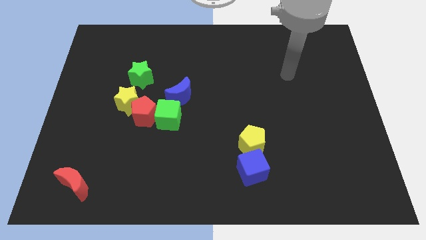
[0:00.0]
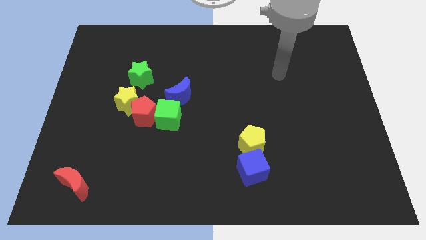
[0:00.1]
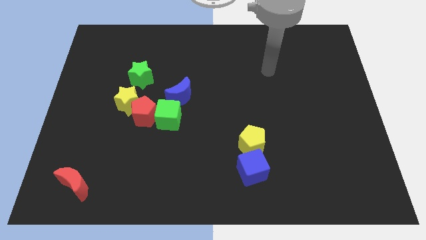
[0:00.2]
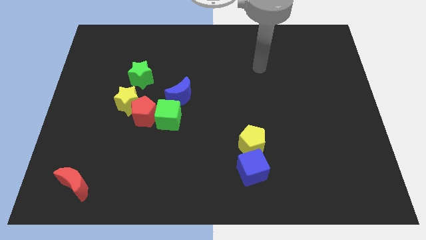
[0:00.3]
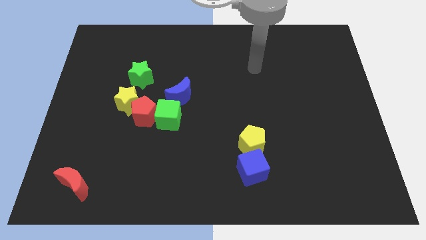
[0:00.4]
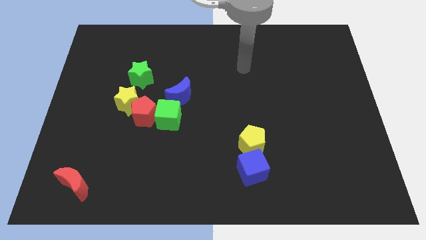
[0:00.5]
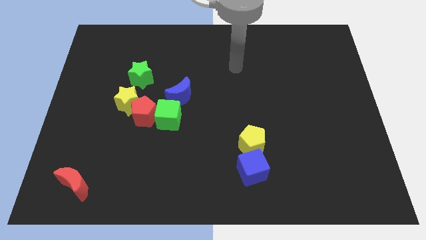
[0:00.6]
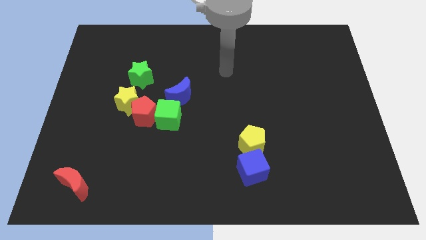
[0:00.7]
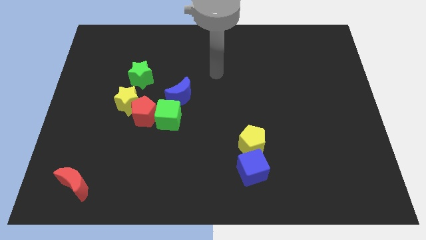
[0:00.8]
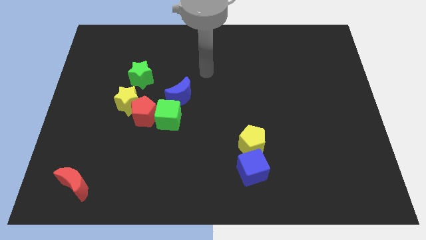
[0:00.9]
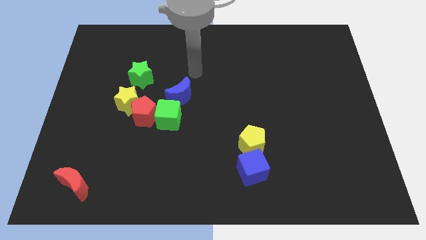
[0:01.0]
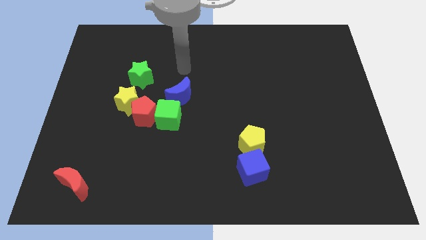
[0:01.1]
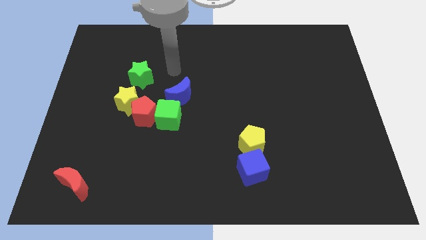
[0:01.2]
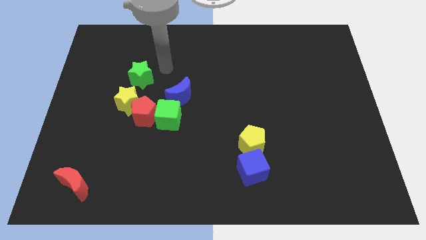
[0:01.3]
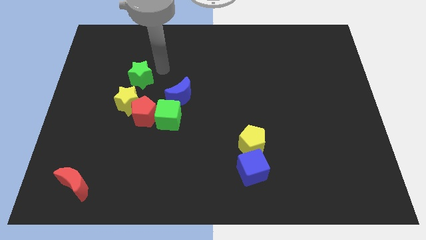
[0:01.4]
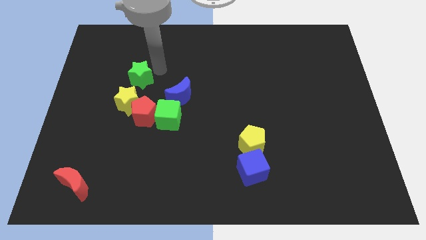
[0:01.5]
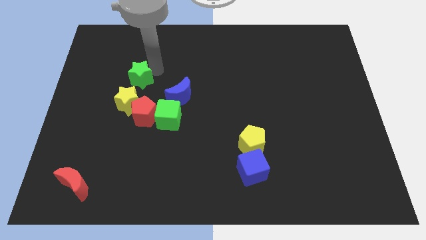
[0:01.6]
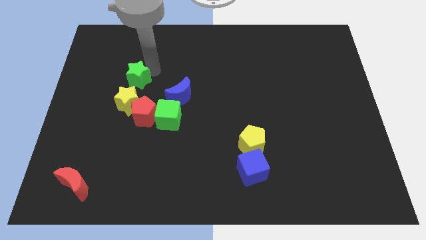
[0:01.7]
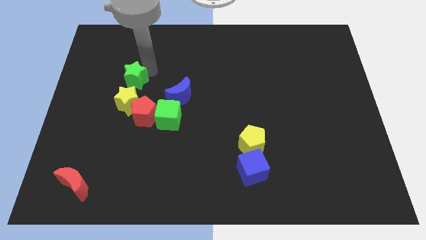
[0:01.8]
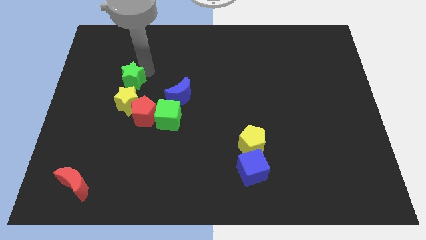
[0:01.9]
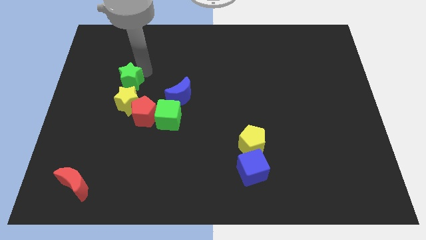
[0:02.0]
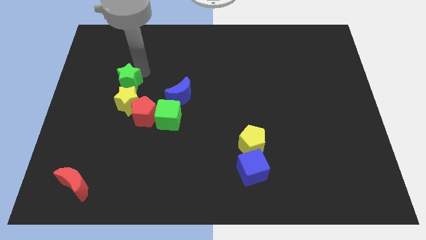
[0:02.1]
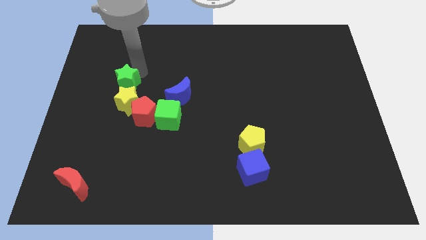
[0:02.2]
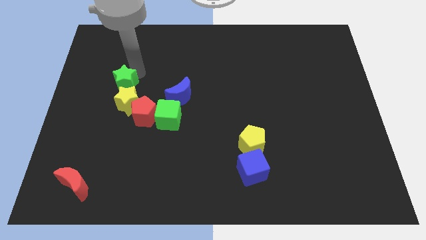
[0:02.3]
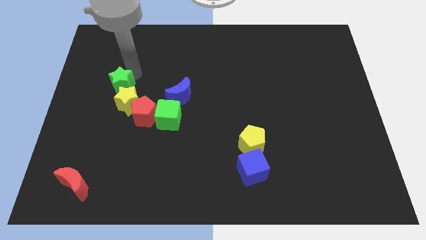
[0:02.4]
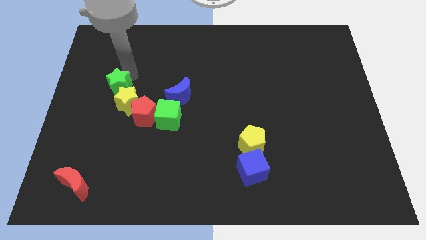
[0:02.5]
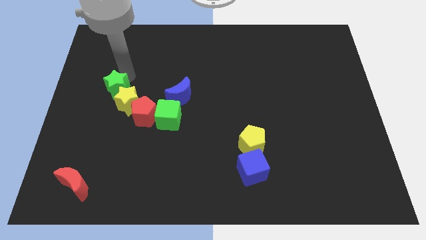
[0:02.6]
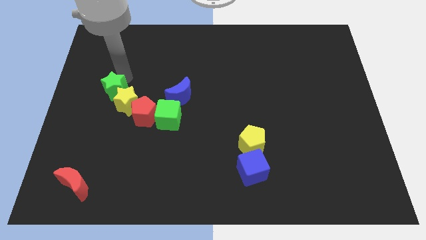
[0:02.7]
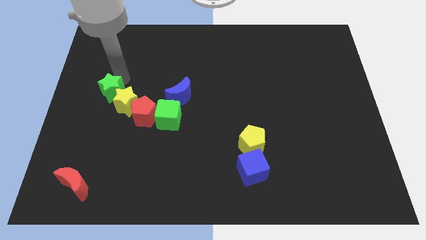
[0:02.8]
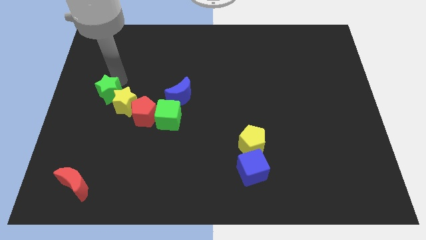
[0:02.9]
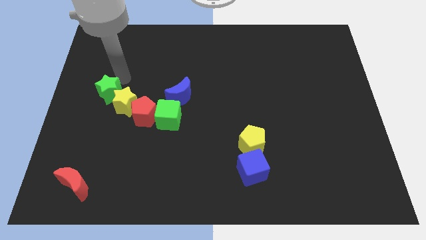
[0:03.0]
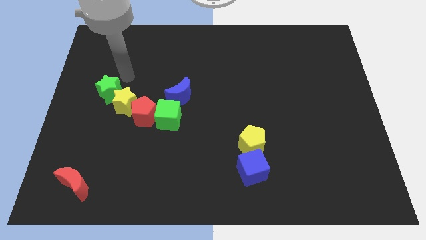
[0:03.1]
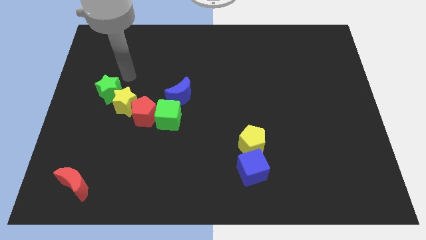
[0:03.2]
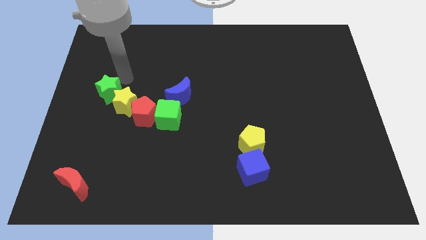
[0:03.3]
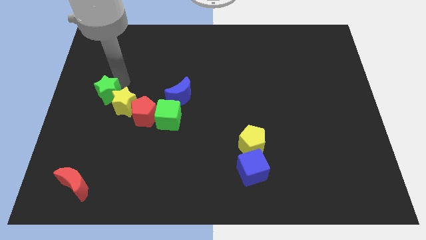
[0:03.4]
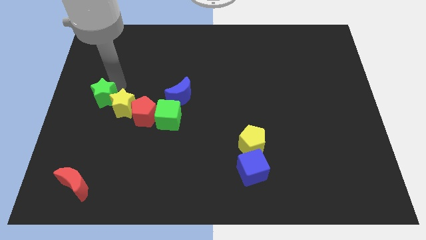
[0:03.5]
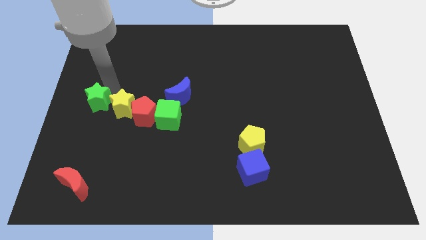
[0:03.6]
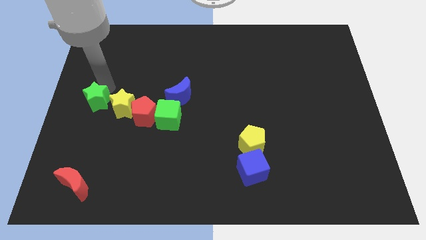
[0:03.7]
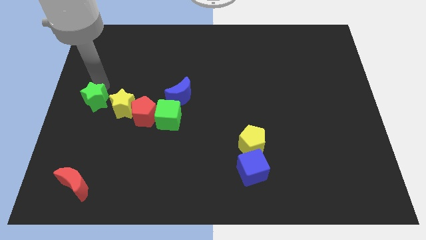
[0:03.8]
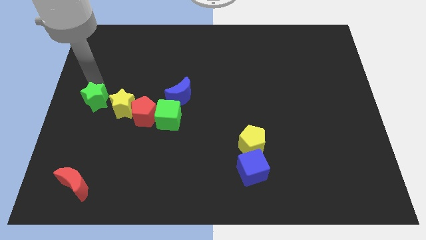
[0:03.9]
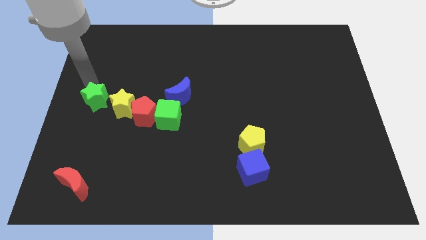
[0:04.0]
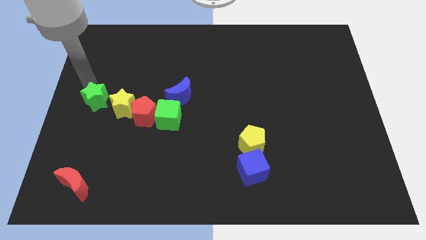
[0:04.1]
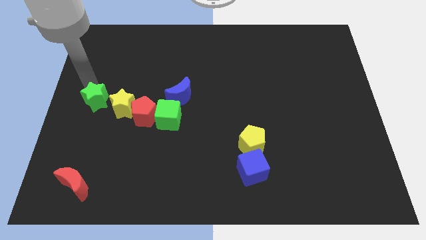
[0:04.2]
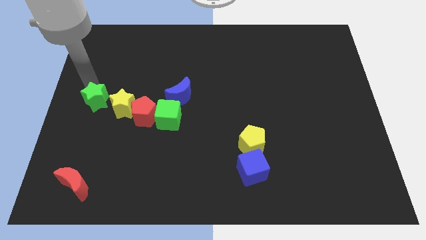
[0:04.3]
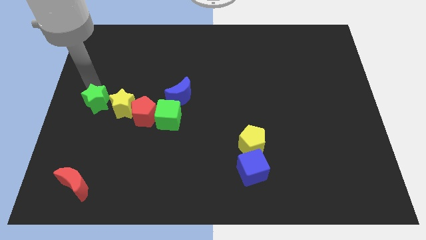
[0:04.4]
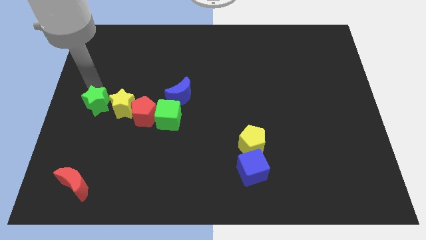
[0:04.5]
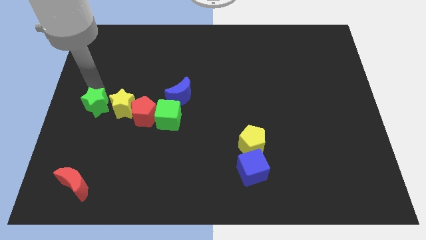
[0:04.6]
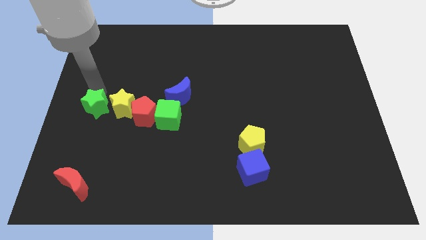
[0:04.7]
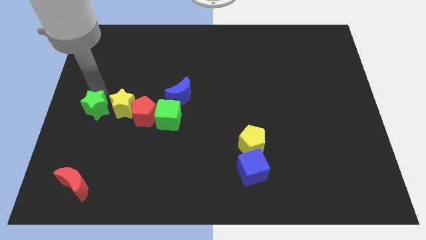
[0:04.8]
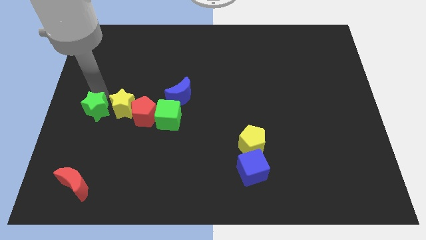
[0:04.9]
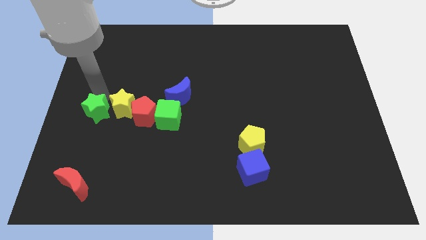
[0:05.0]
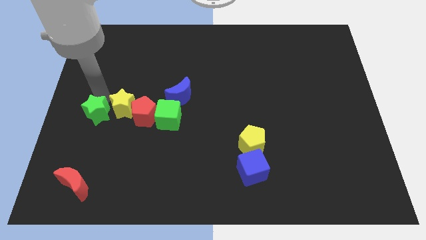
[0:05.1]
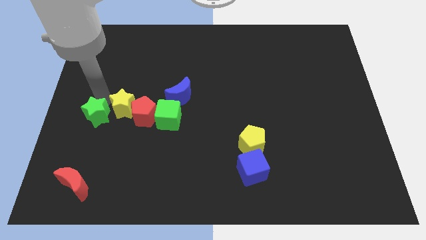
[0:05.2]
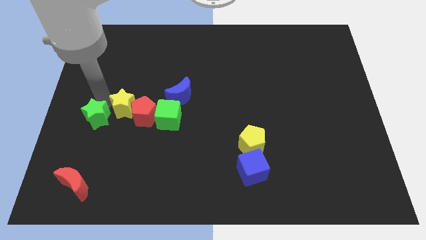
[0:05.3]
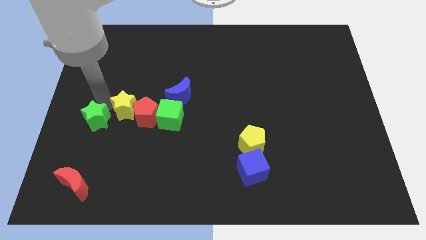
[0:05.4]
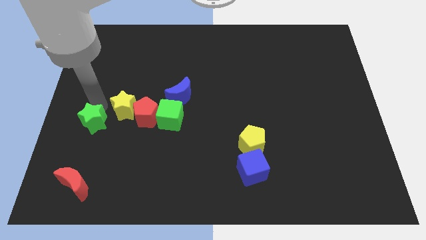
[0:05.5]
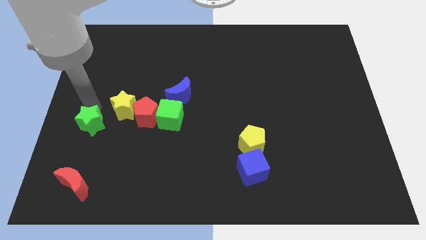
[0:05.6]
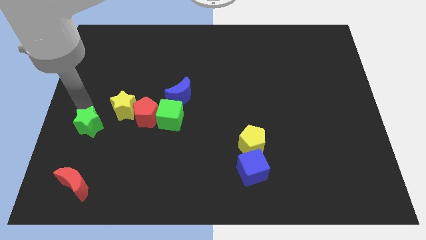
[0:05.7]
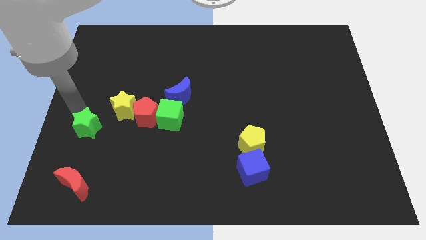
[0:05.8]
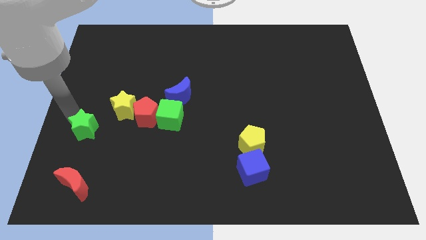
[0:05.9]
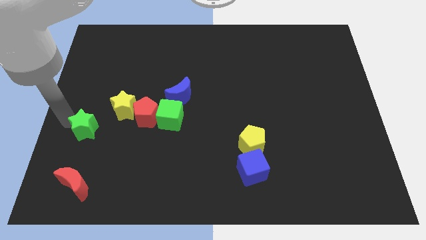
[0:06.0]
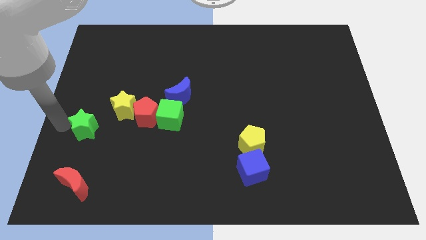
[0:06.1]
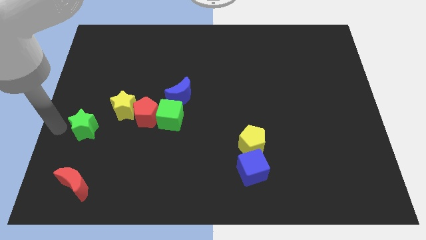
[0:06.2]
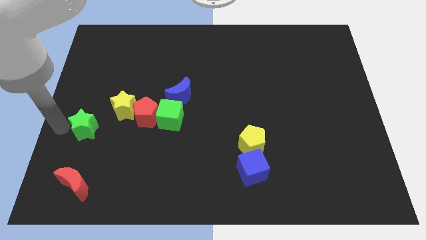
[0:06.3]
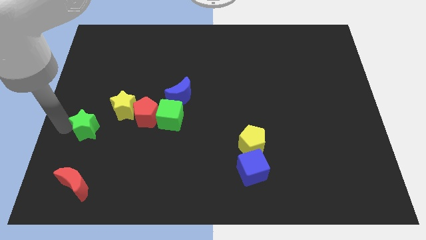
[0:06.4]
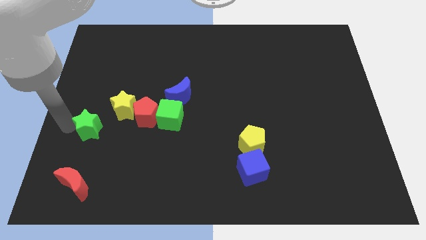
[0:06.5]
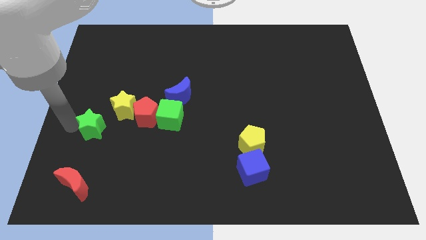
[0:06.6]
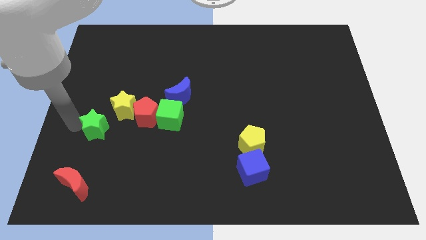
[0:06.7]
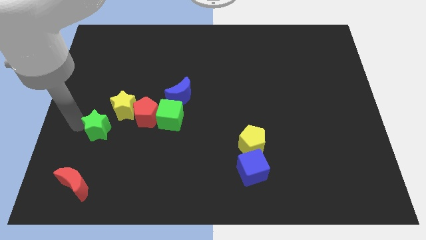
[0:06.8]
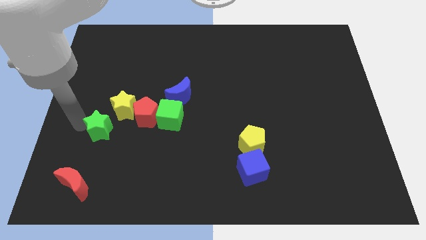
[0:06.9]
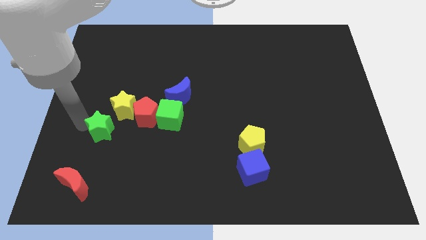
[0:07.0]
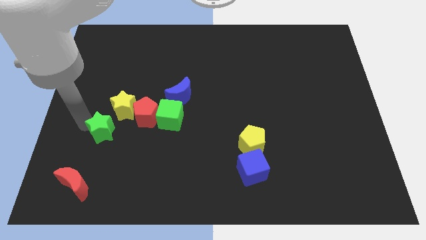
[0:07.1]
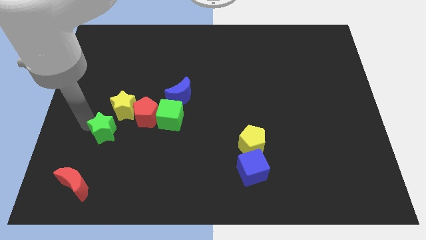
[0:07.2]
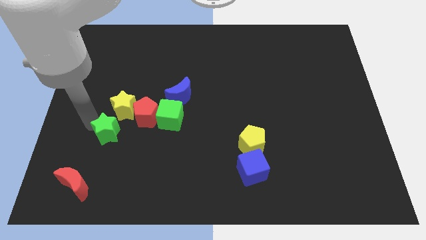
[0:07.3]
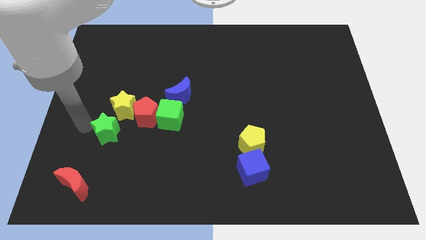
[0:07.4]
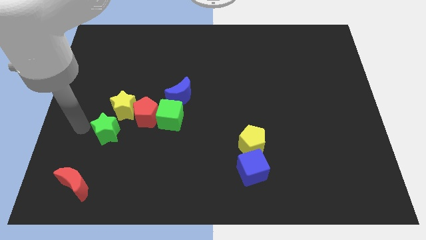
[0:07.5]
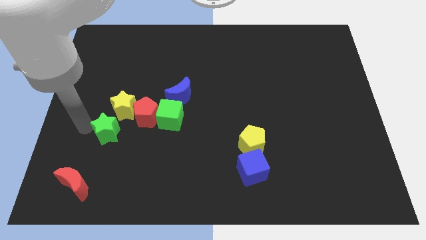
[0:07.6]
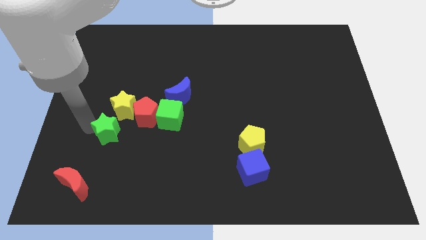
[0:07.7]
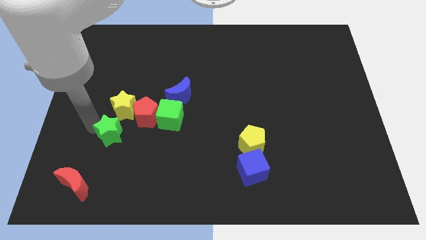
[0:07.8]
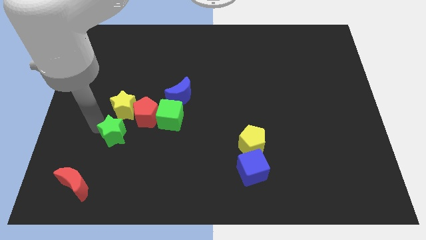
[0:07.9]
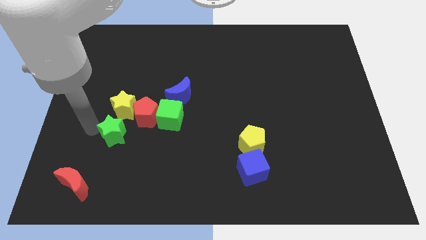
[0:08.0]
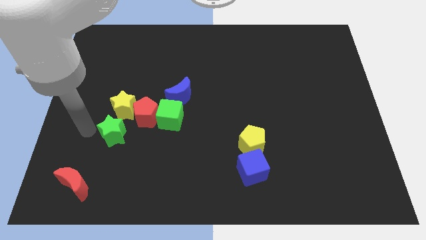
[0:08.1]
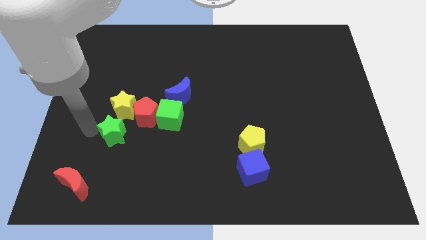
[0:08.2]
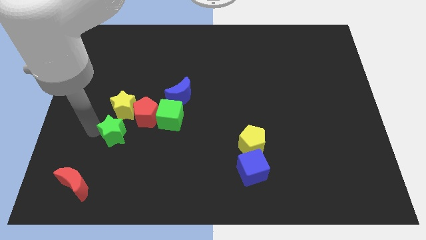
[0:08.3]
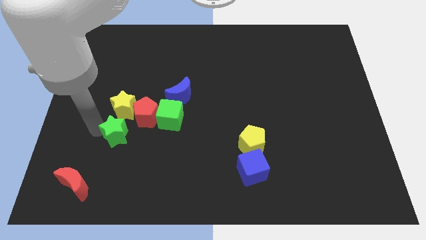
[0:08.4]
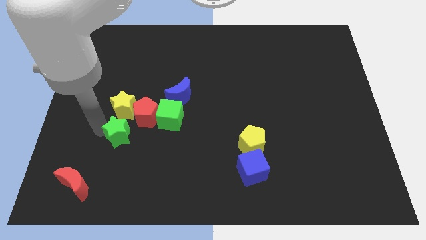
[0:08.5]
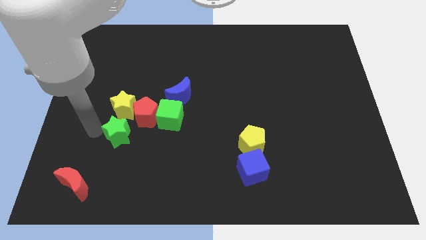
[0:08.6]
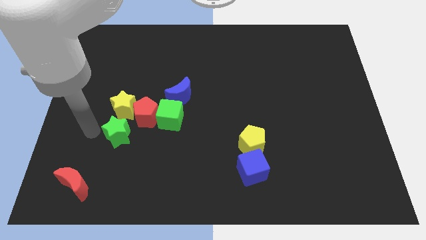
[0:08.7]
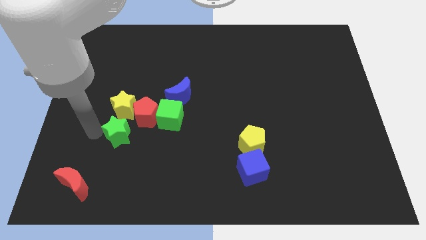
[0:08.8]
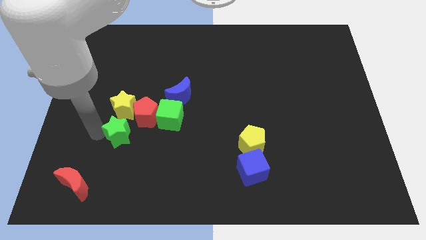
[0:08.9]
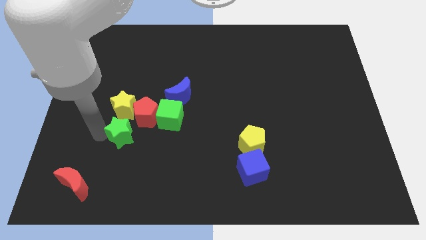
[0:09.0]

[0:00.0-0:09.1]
move the green star to the bottom left of the green cube
